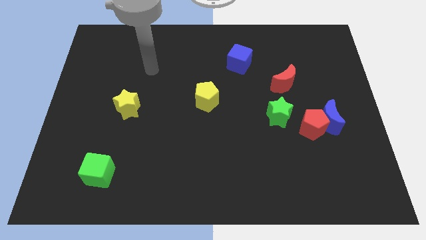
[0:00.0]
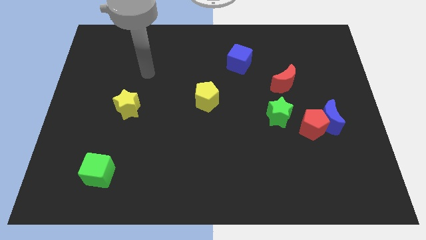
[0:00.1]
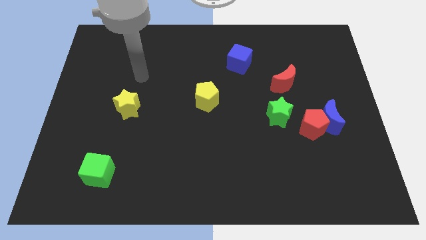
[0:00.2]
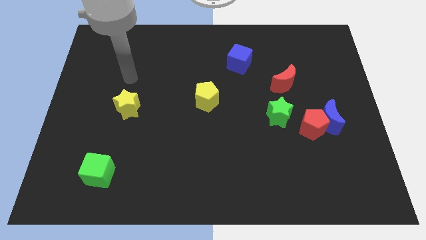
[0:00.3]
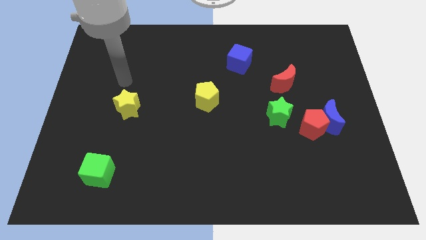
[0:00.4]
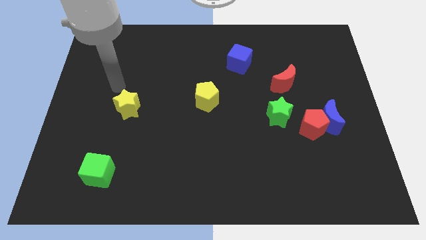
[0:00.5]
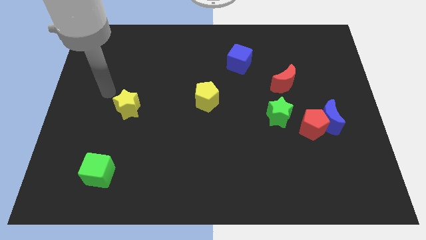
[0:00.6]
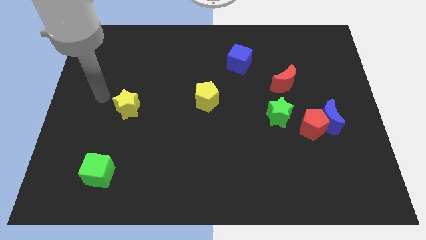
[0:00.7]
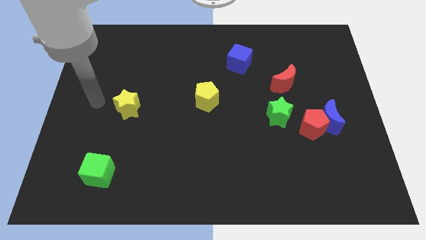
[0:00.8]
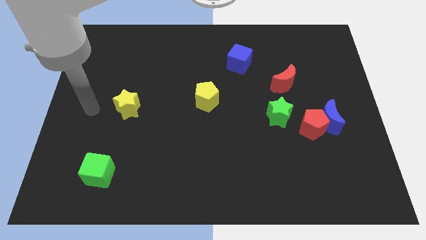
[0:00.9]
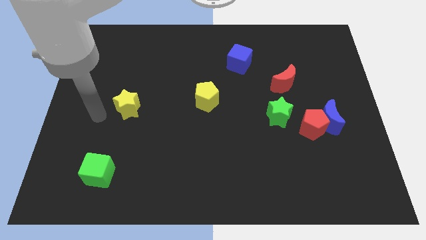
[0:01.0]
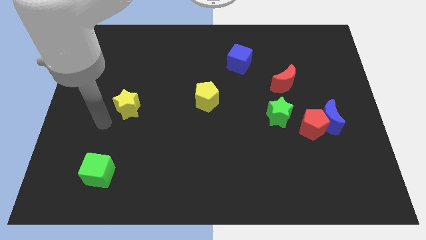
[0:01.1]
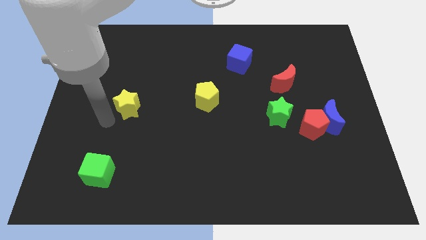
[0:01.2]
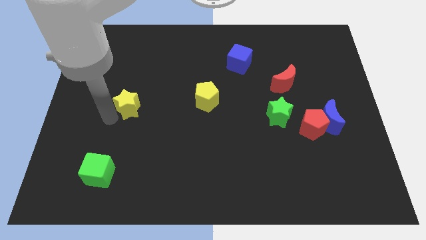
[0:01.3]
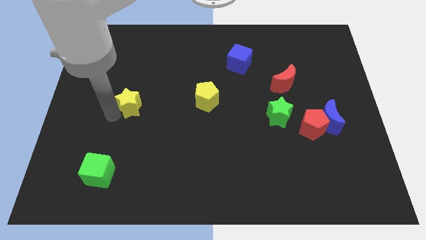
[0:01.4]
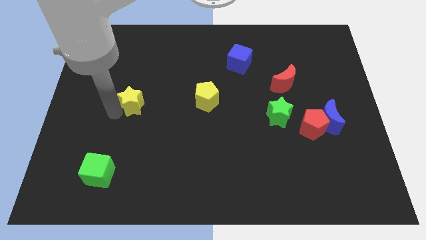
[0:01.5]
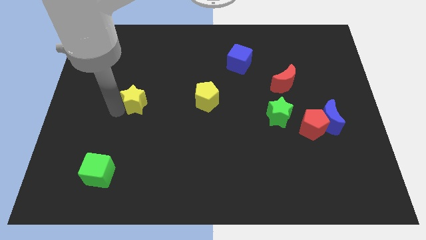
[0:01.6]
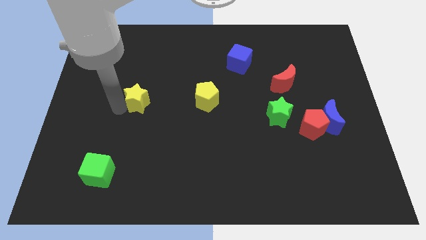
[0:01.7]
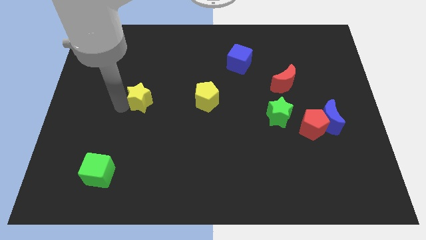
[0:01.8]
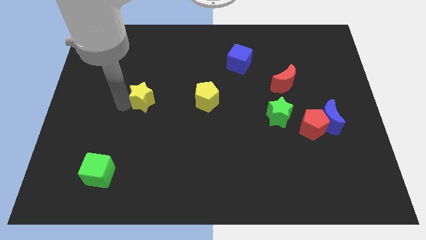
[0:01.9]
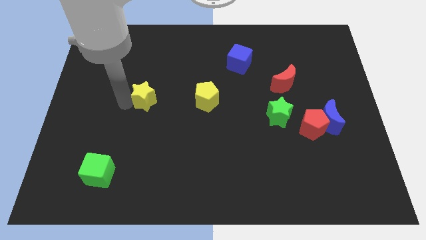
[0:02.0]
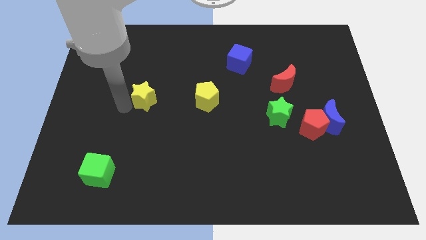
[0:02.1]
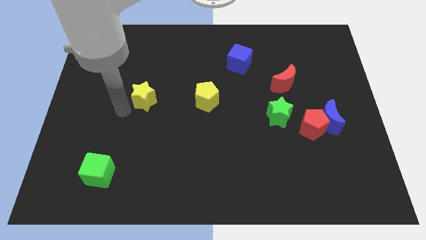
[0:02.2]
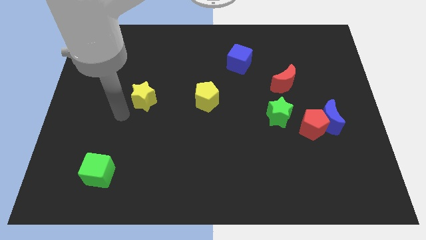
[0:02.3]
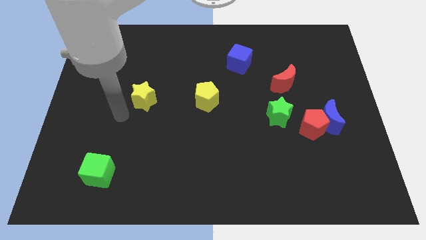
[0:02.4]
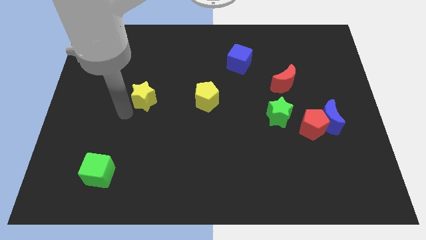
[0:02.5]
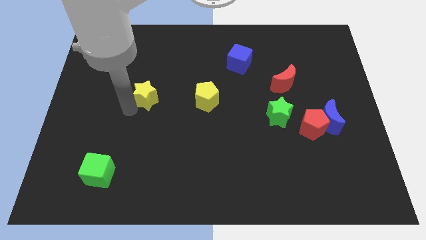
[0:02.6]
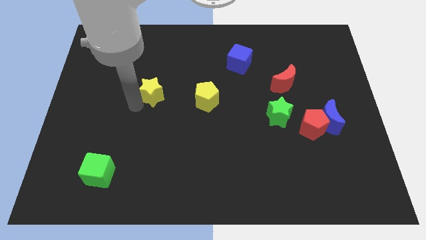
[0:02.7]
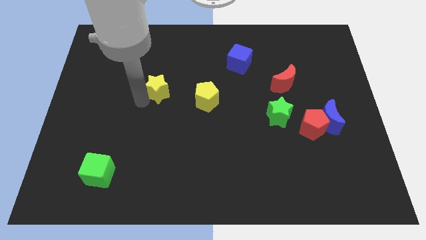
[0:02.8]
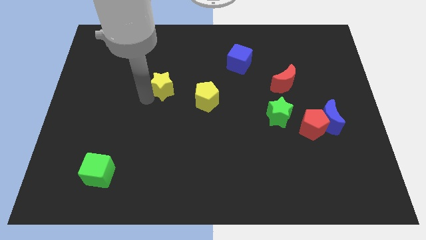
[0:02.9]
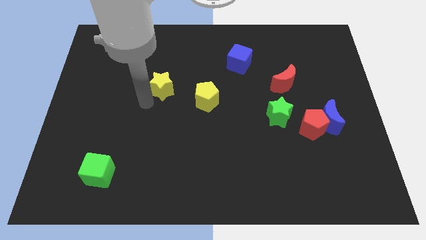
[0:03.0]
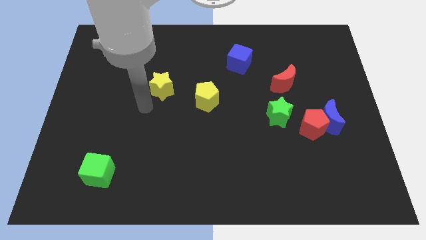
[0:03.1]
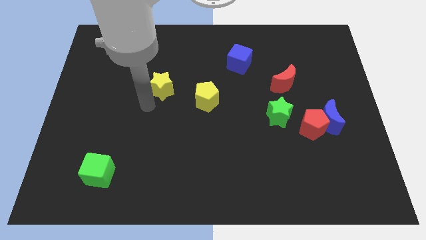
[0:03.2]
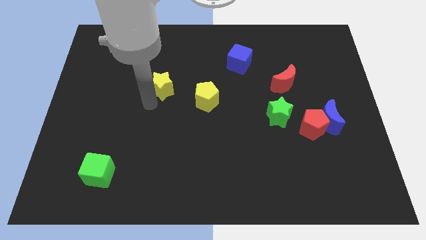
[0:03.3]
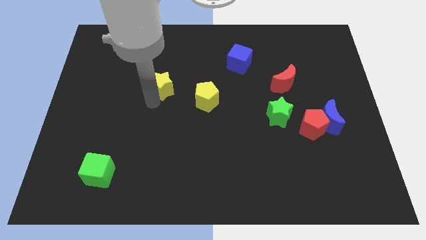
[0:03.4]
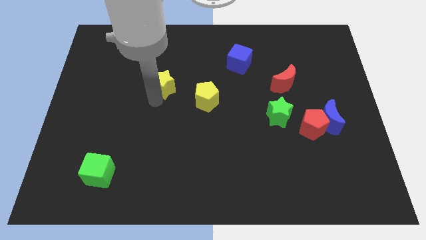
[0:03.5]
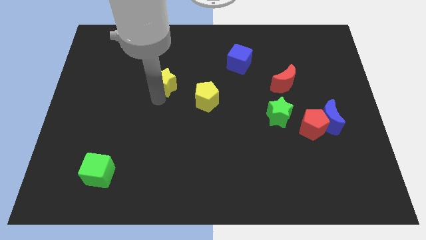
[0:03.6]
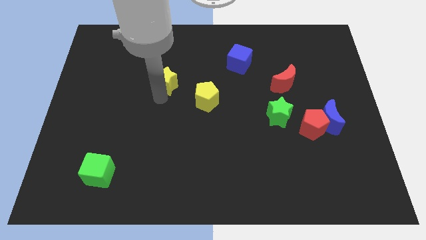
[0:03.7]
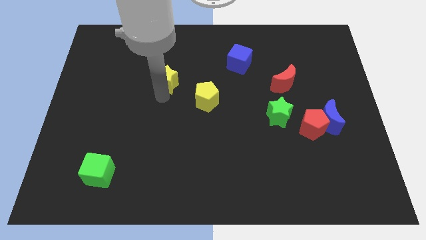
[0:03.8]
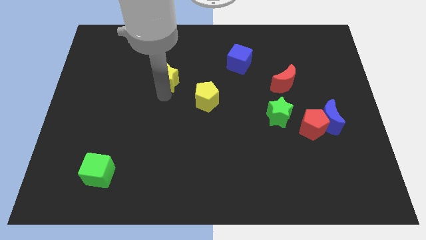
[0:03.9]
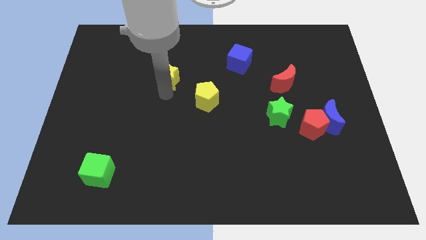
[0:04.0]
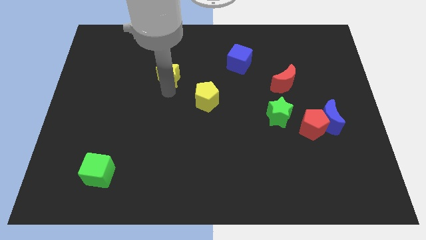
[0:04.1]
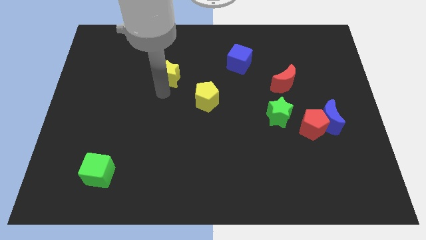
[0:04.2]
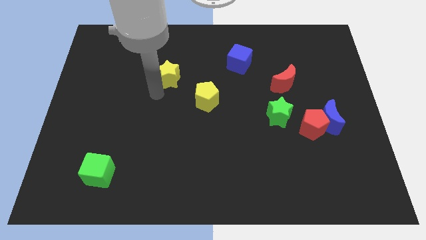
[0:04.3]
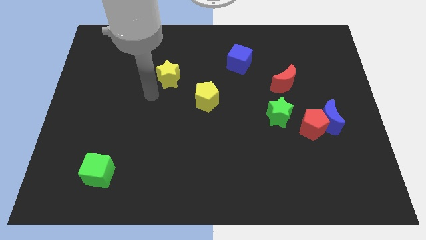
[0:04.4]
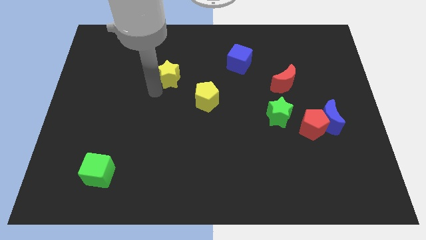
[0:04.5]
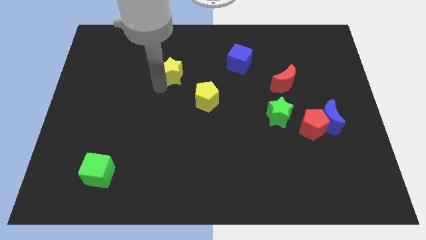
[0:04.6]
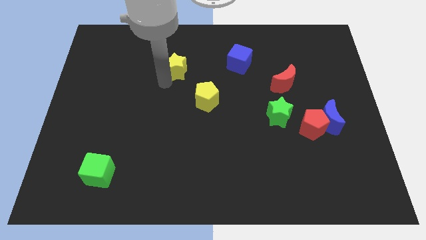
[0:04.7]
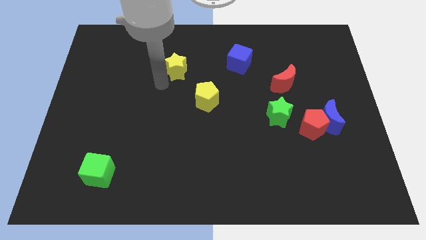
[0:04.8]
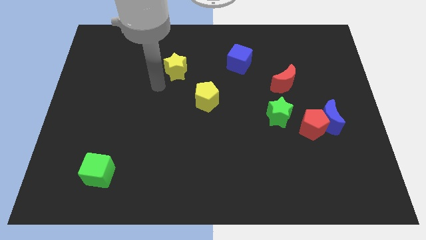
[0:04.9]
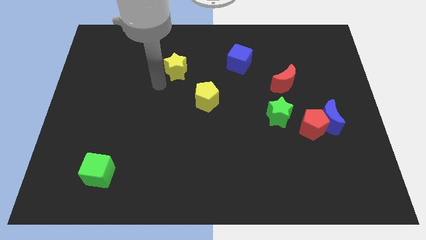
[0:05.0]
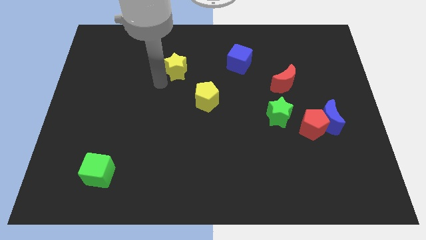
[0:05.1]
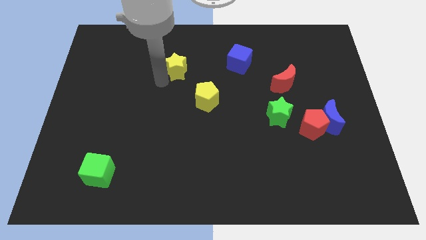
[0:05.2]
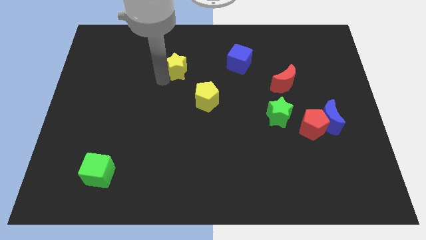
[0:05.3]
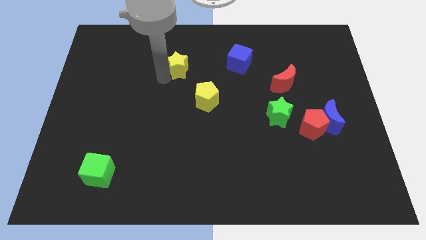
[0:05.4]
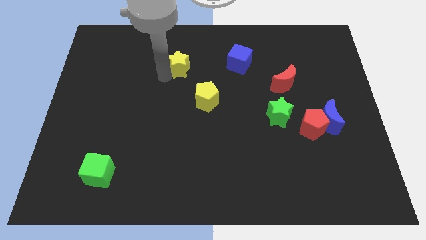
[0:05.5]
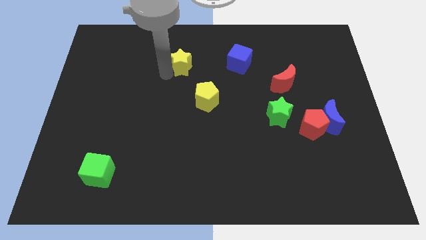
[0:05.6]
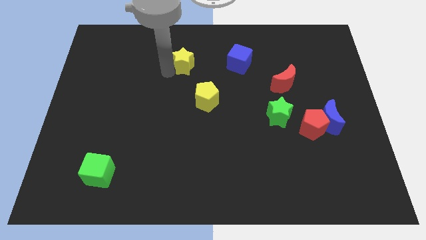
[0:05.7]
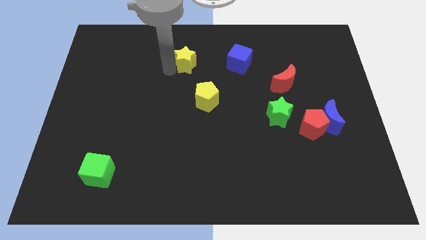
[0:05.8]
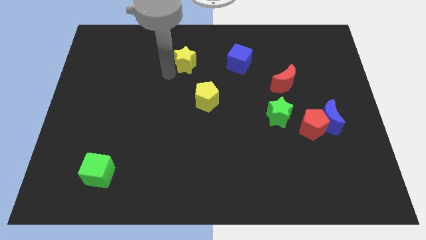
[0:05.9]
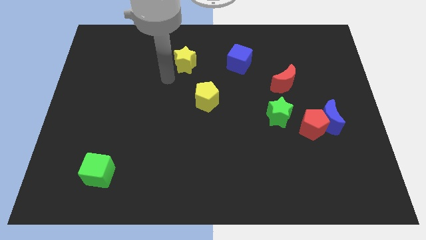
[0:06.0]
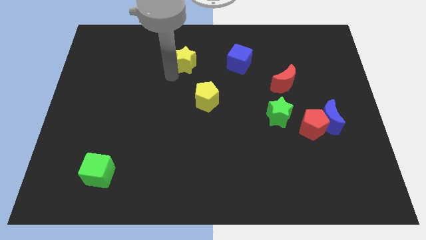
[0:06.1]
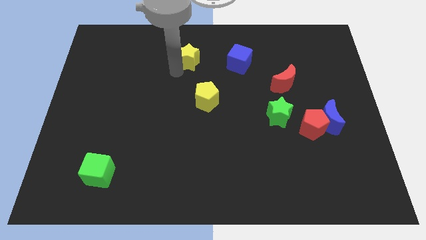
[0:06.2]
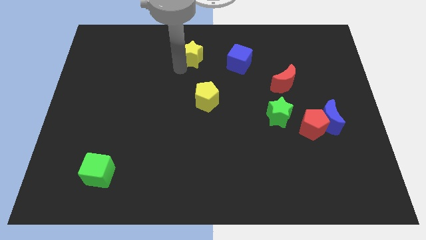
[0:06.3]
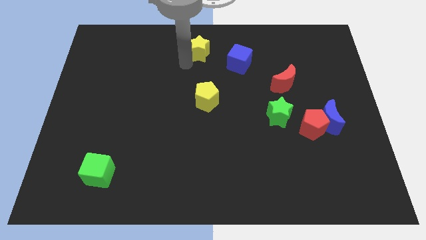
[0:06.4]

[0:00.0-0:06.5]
slide the yellow star to the towards your base

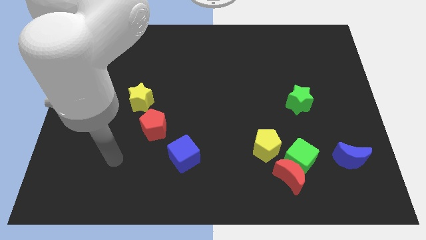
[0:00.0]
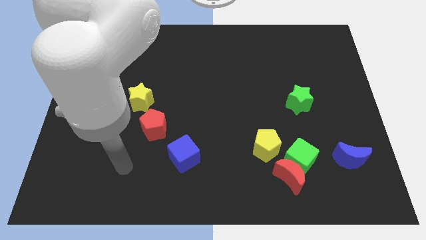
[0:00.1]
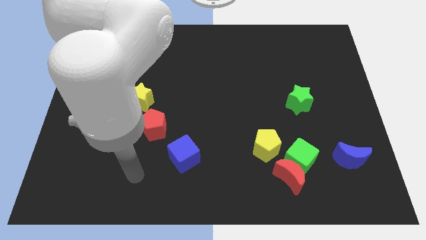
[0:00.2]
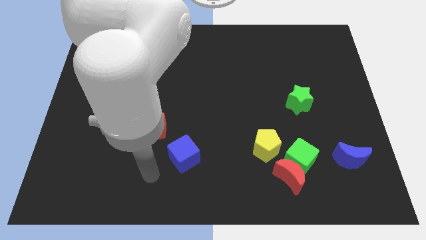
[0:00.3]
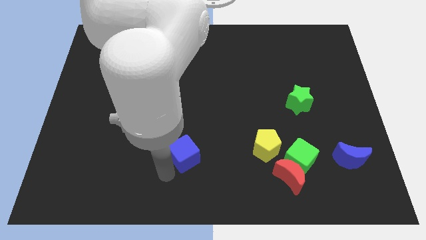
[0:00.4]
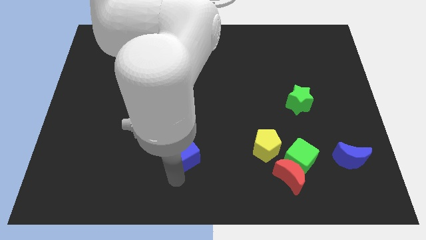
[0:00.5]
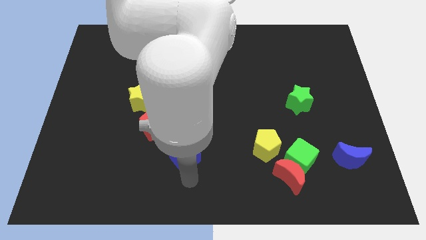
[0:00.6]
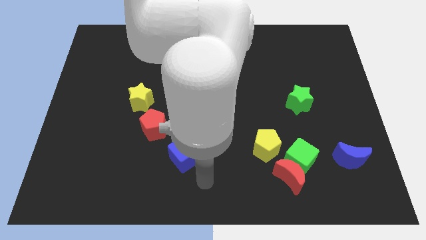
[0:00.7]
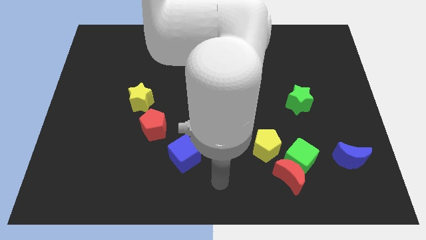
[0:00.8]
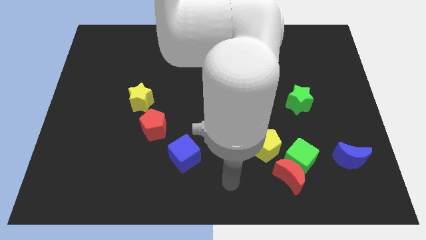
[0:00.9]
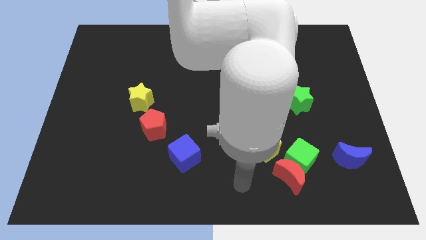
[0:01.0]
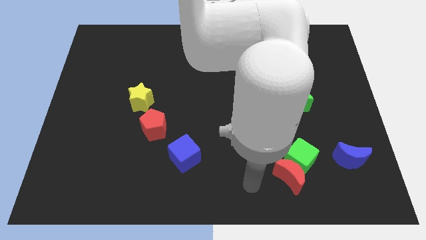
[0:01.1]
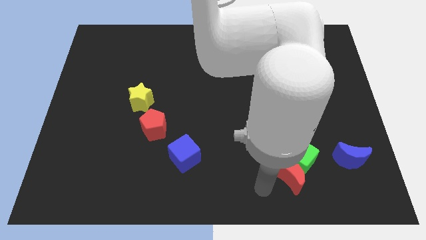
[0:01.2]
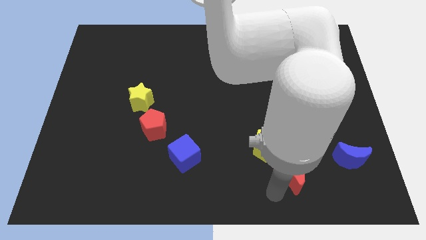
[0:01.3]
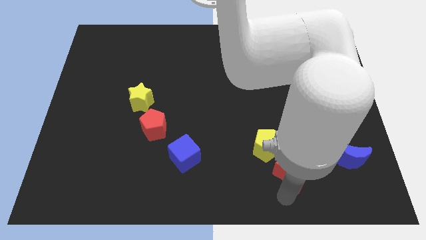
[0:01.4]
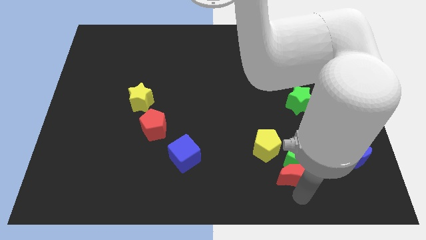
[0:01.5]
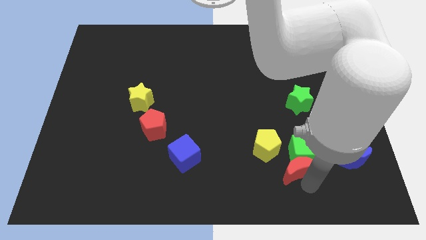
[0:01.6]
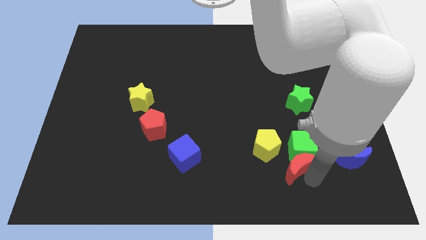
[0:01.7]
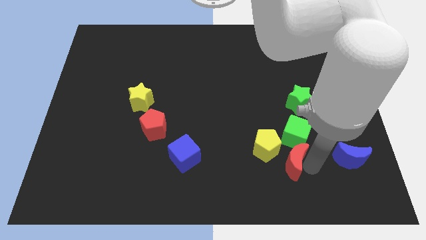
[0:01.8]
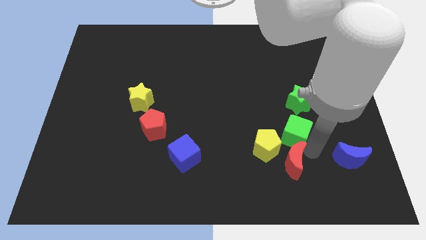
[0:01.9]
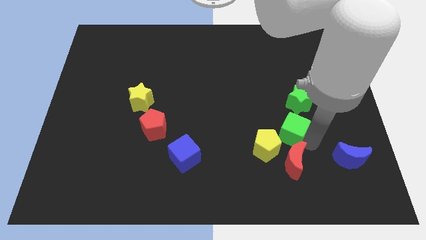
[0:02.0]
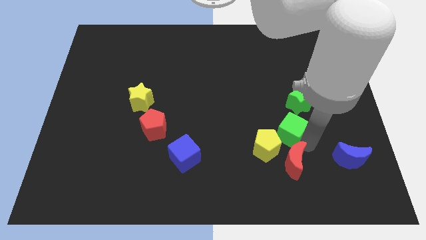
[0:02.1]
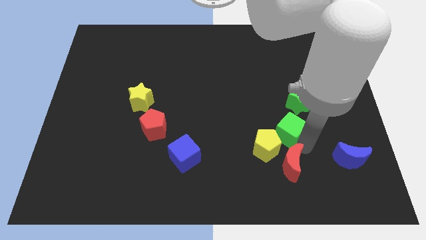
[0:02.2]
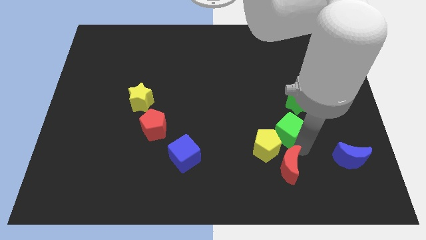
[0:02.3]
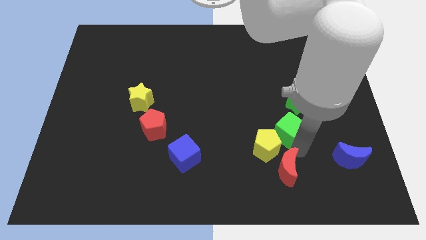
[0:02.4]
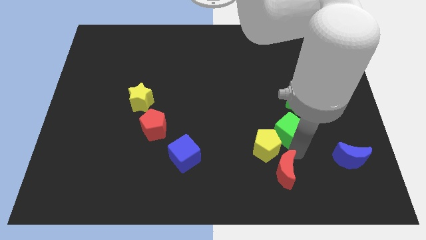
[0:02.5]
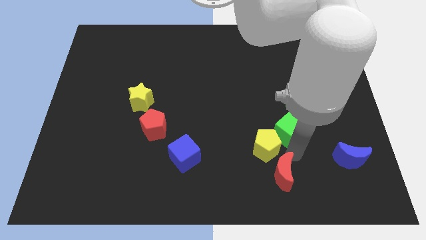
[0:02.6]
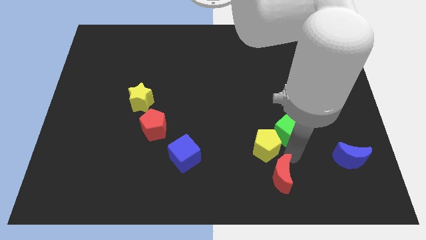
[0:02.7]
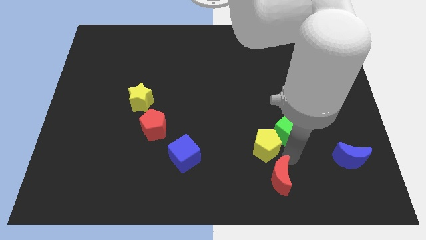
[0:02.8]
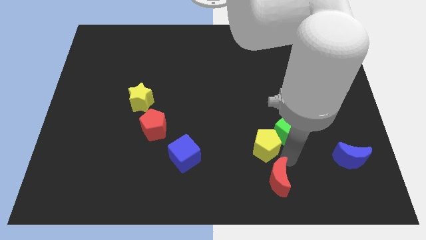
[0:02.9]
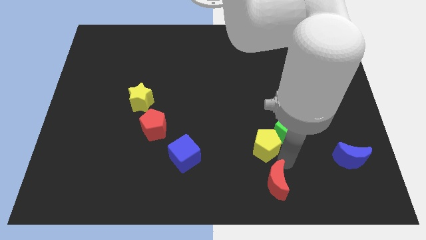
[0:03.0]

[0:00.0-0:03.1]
move the red moon to the bottom
